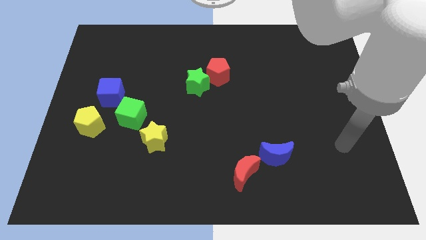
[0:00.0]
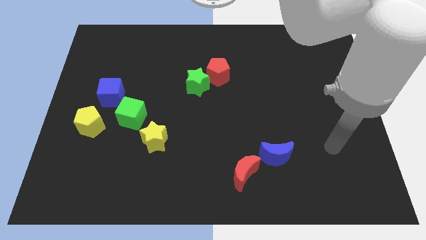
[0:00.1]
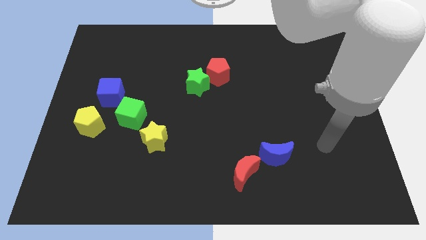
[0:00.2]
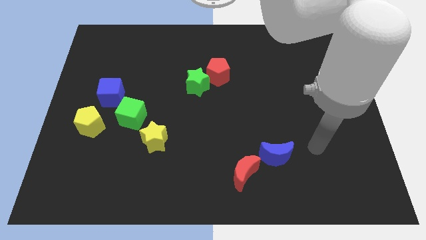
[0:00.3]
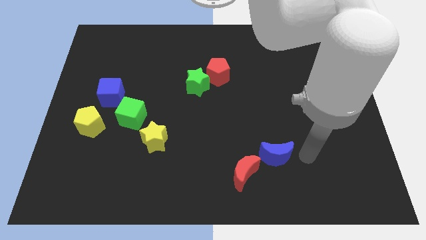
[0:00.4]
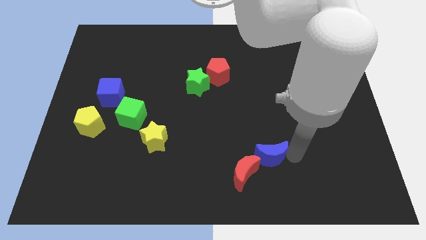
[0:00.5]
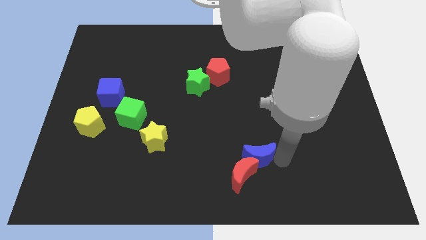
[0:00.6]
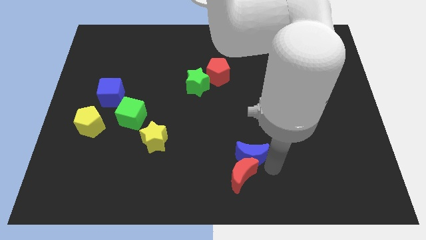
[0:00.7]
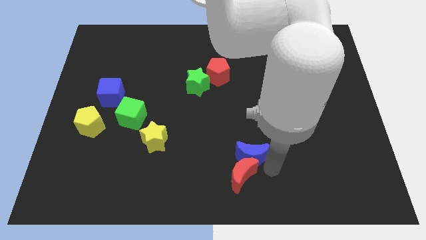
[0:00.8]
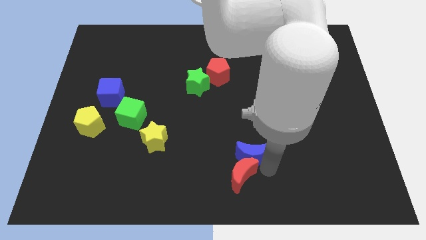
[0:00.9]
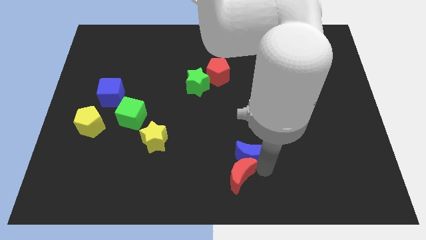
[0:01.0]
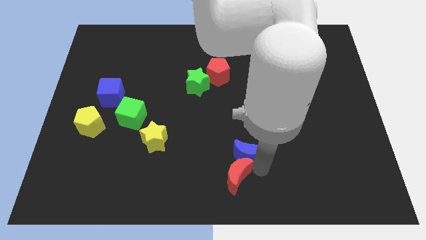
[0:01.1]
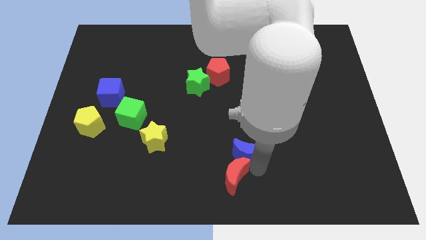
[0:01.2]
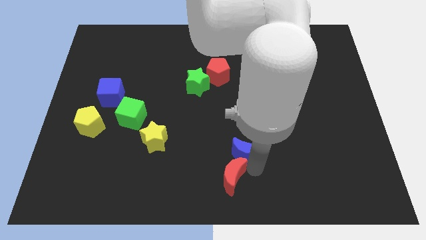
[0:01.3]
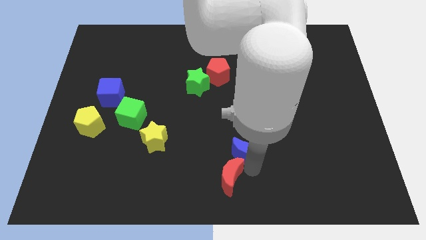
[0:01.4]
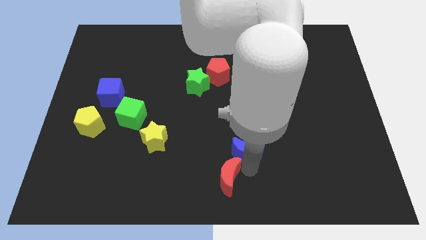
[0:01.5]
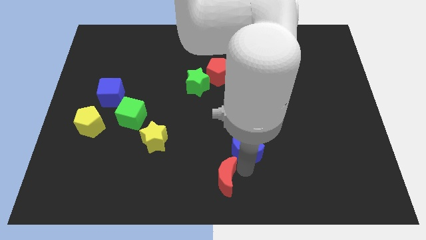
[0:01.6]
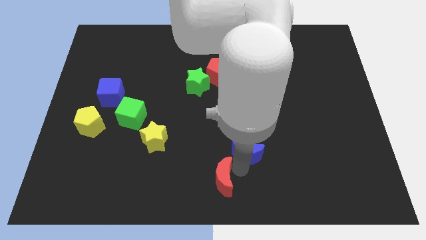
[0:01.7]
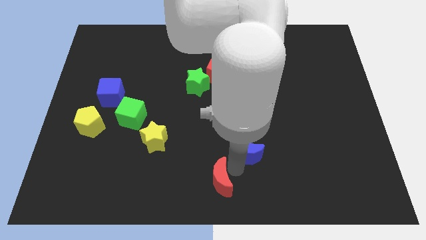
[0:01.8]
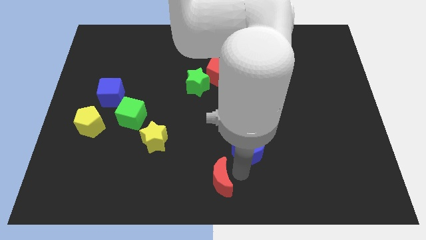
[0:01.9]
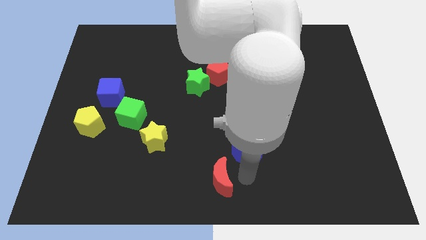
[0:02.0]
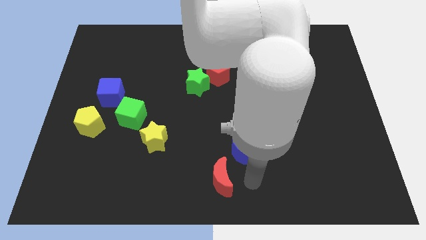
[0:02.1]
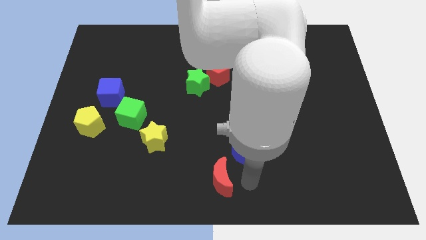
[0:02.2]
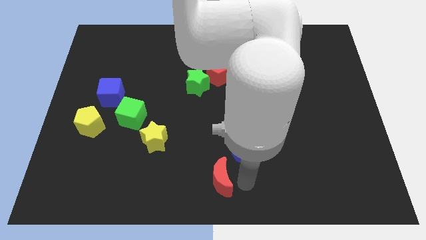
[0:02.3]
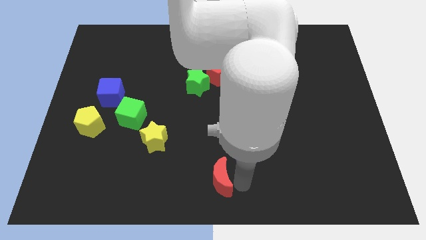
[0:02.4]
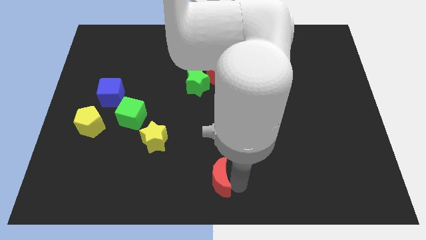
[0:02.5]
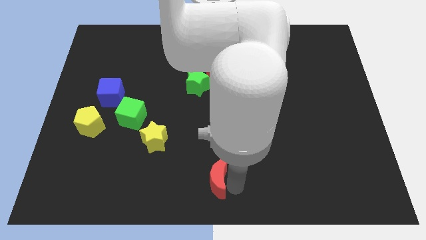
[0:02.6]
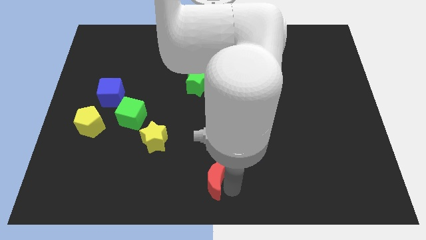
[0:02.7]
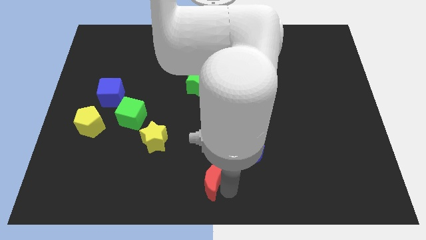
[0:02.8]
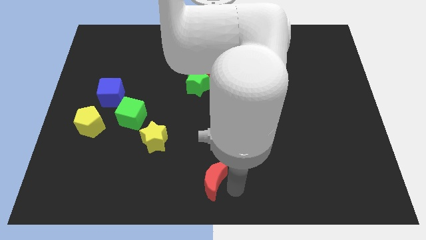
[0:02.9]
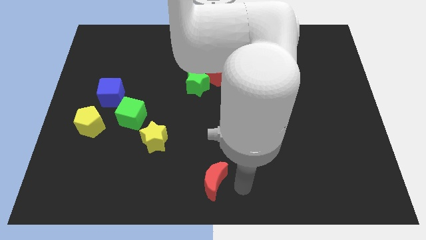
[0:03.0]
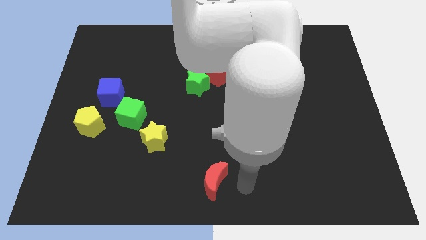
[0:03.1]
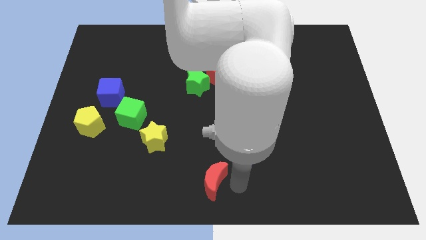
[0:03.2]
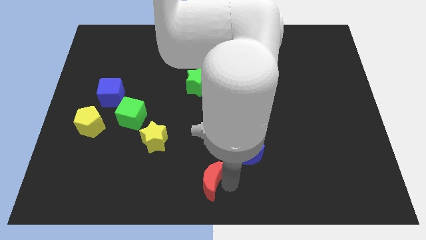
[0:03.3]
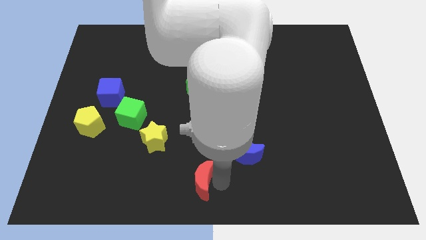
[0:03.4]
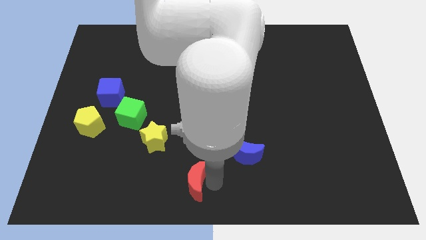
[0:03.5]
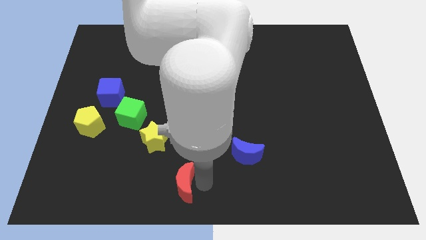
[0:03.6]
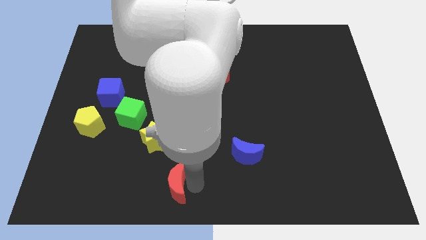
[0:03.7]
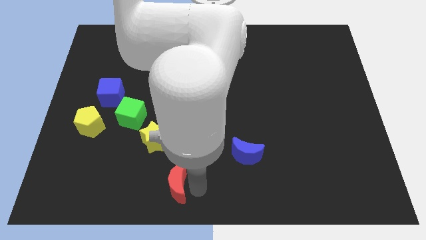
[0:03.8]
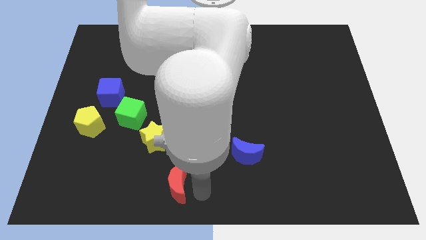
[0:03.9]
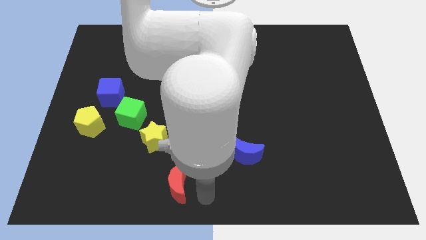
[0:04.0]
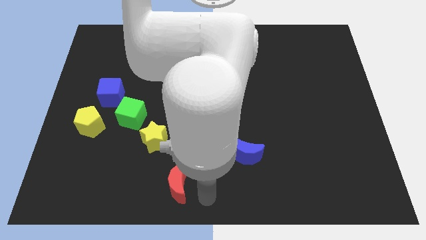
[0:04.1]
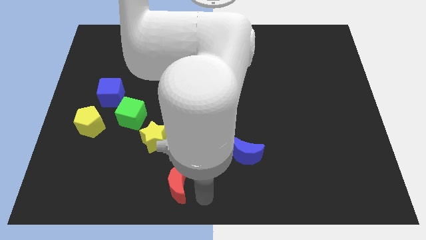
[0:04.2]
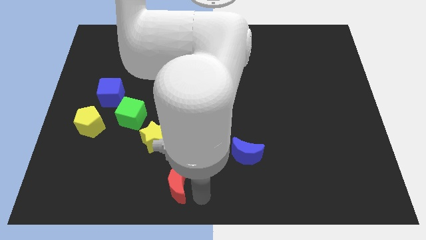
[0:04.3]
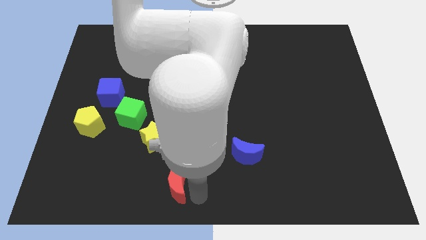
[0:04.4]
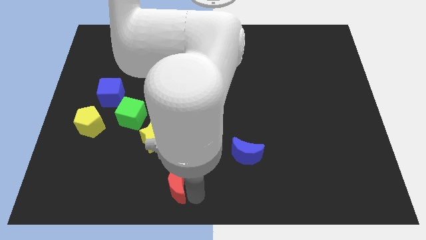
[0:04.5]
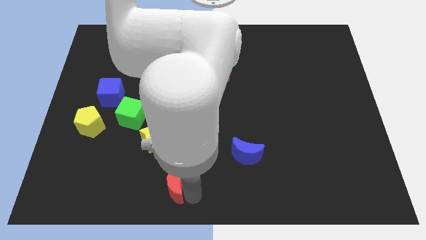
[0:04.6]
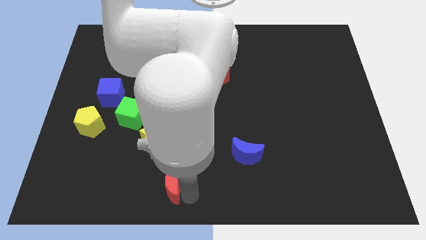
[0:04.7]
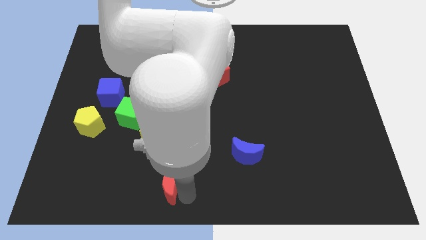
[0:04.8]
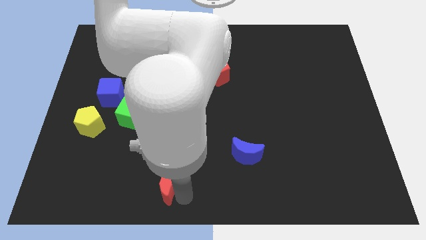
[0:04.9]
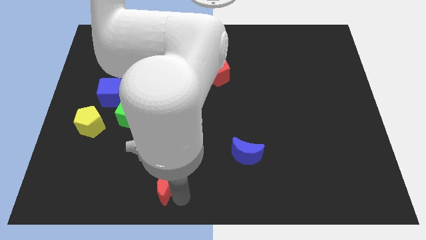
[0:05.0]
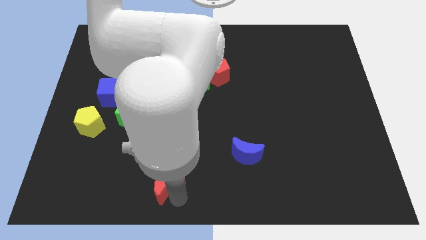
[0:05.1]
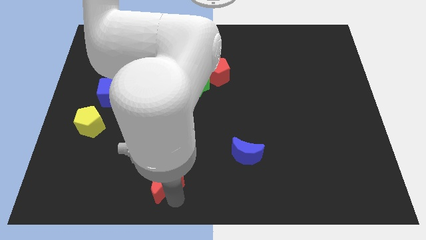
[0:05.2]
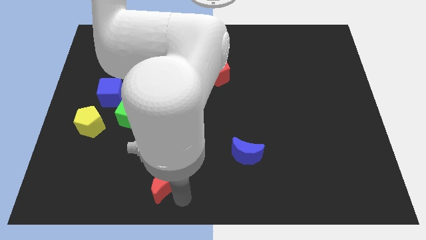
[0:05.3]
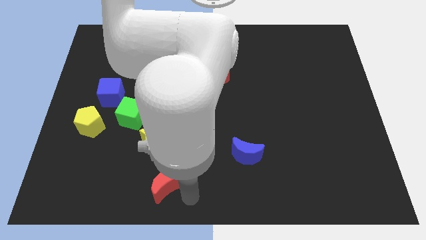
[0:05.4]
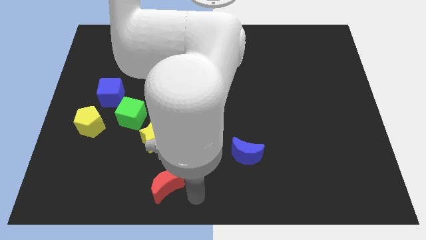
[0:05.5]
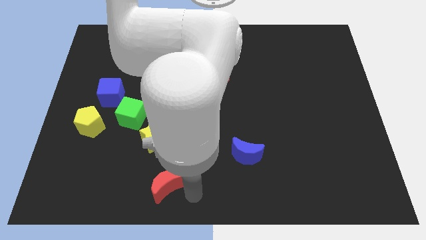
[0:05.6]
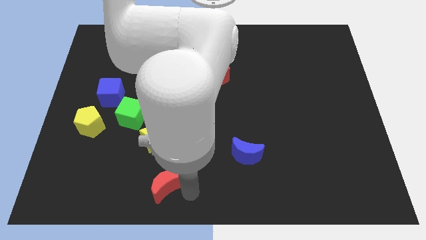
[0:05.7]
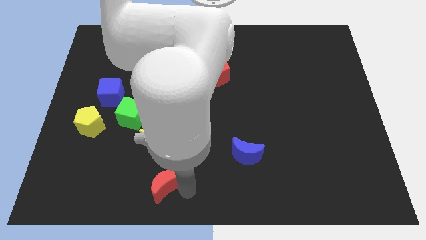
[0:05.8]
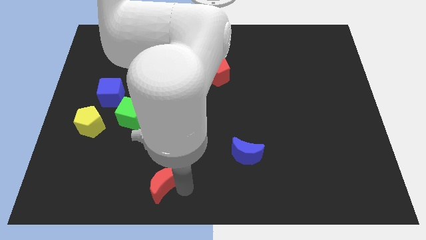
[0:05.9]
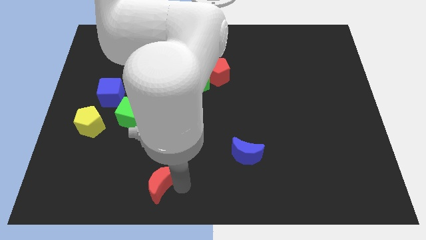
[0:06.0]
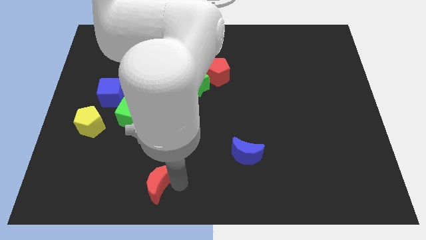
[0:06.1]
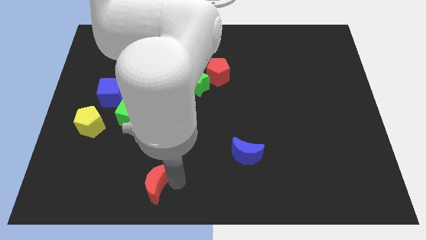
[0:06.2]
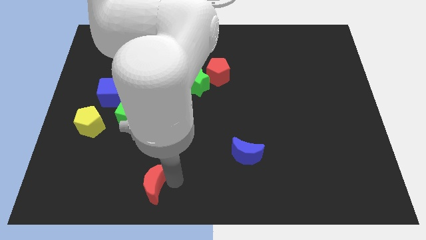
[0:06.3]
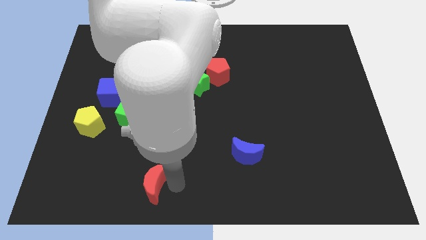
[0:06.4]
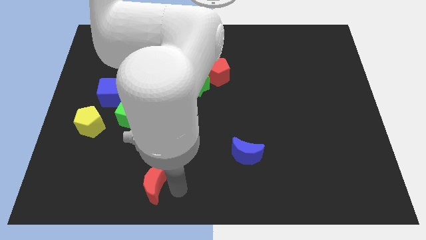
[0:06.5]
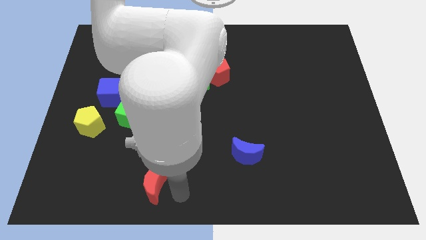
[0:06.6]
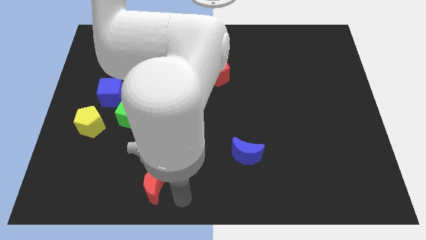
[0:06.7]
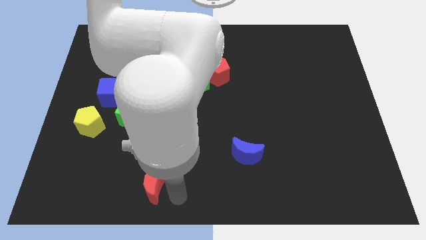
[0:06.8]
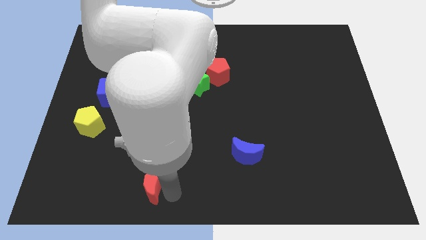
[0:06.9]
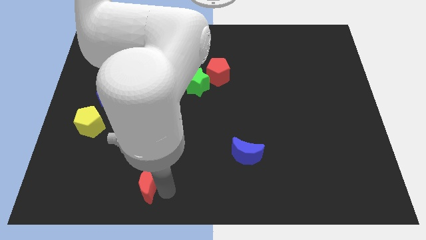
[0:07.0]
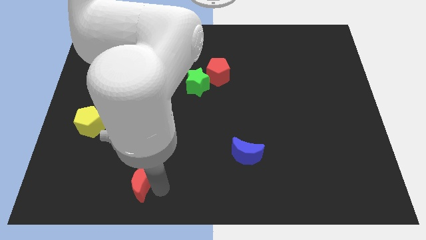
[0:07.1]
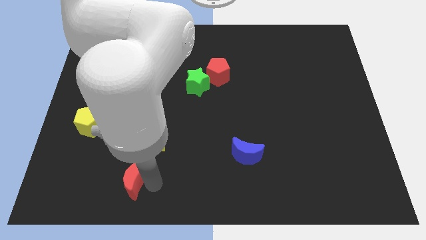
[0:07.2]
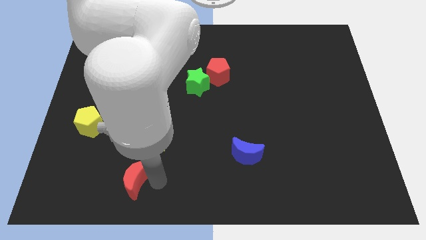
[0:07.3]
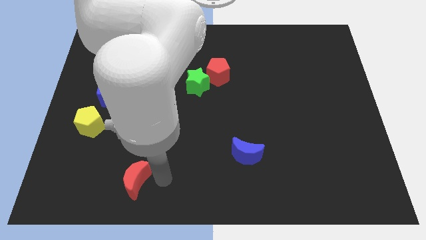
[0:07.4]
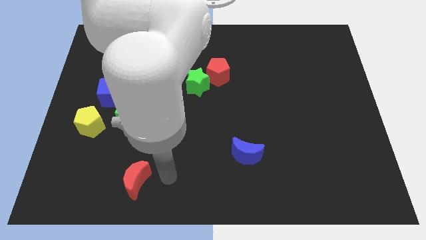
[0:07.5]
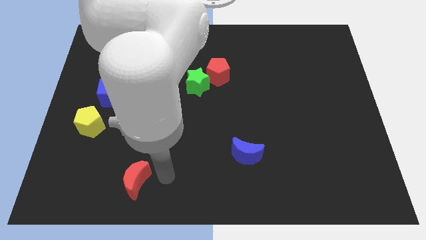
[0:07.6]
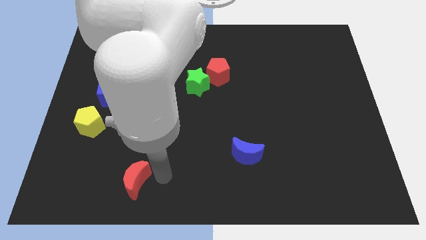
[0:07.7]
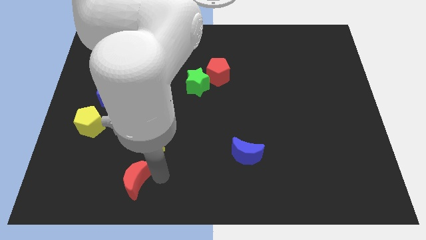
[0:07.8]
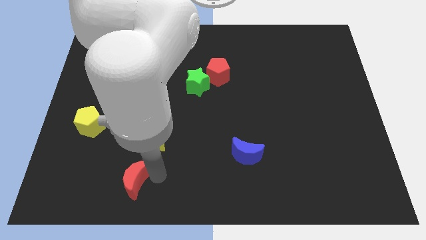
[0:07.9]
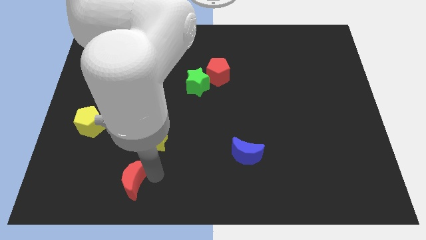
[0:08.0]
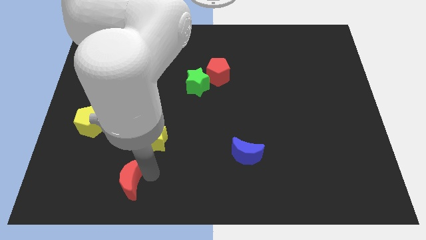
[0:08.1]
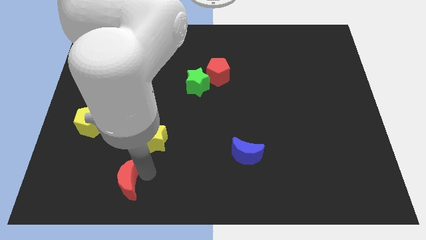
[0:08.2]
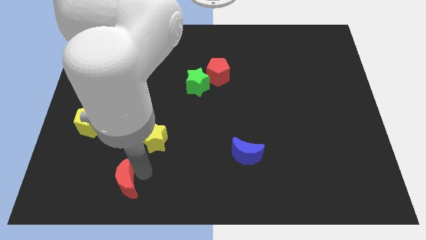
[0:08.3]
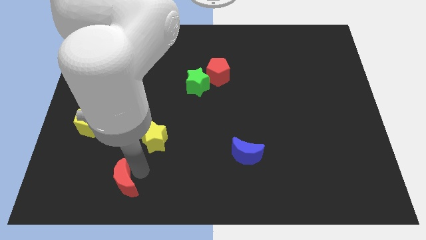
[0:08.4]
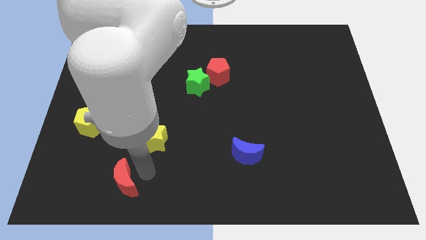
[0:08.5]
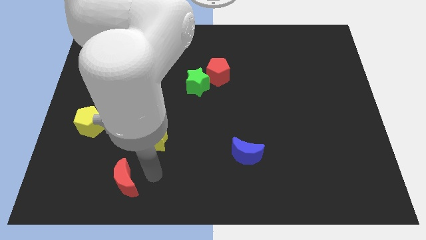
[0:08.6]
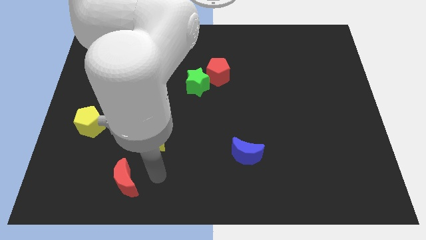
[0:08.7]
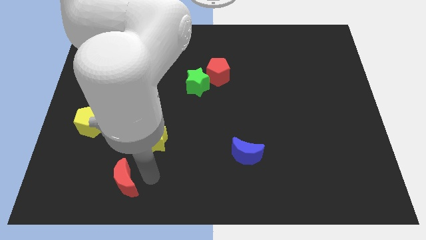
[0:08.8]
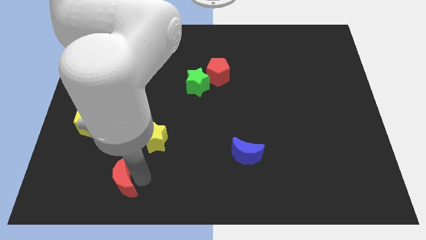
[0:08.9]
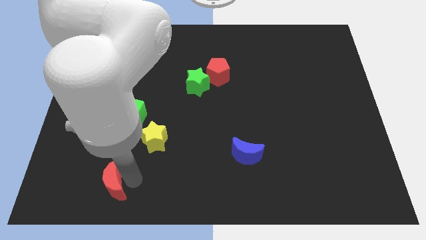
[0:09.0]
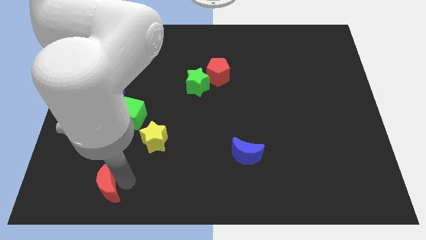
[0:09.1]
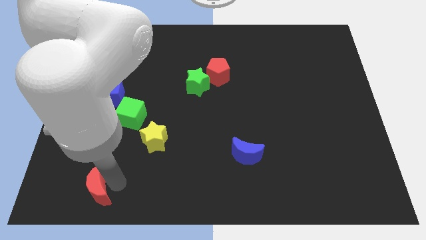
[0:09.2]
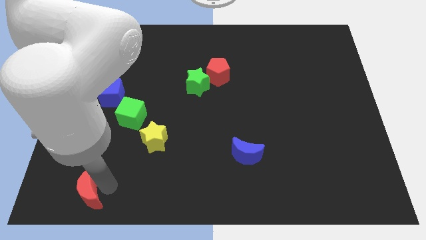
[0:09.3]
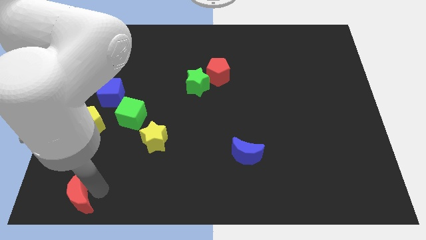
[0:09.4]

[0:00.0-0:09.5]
slide the red moon to the lower left corner
